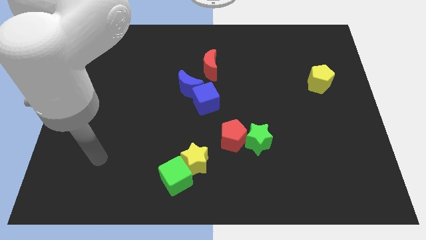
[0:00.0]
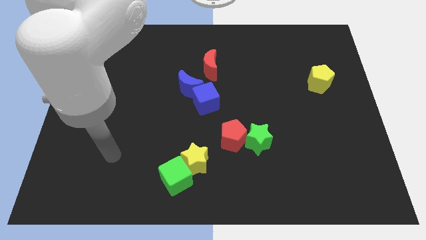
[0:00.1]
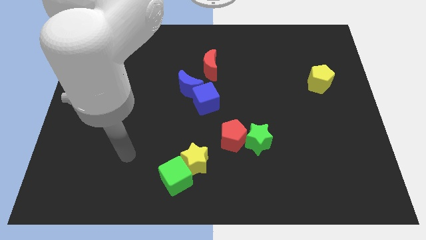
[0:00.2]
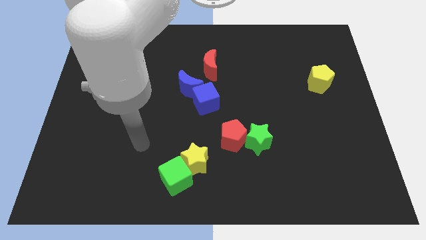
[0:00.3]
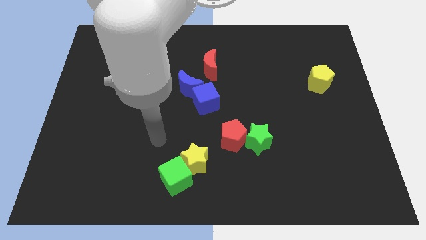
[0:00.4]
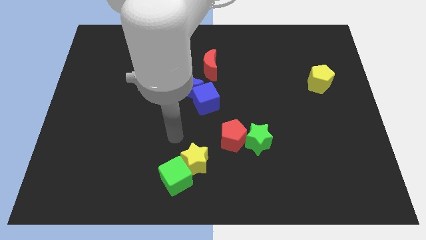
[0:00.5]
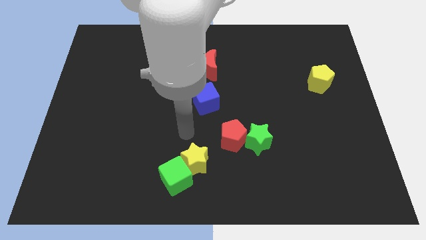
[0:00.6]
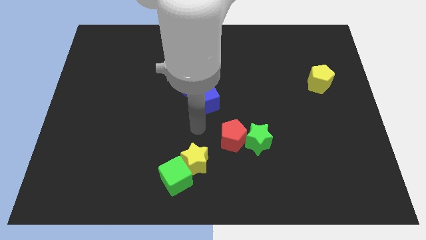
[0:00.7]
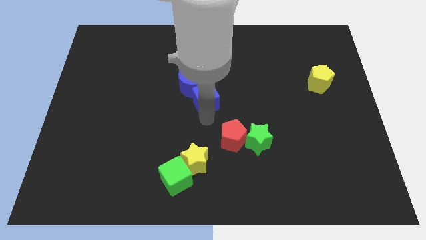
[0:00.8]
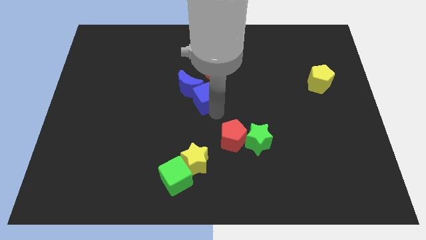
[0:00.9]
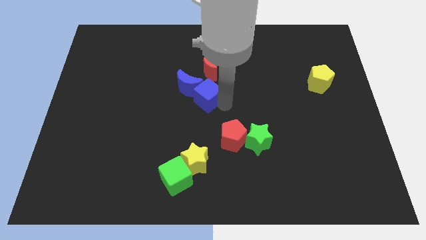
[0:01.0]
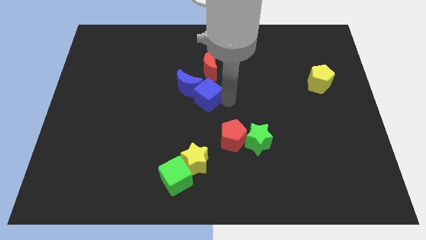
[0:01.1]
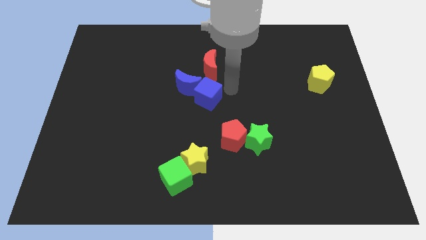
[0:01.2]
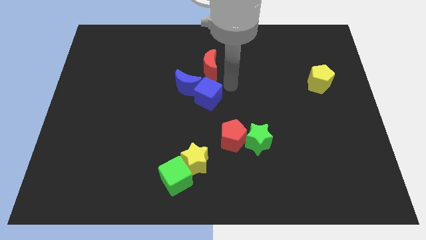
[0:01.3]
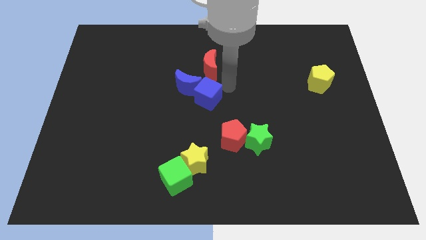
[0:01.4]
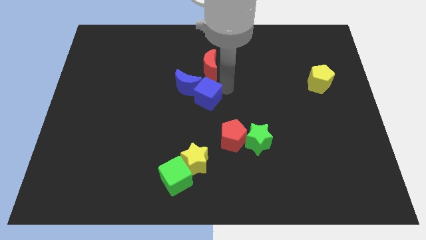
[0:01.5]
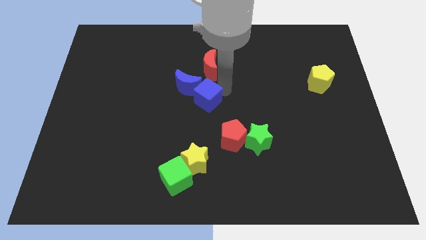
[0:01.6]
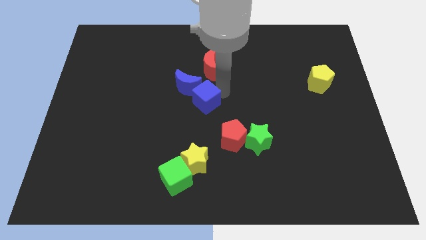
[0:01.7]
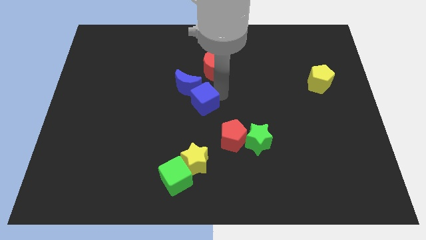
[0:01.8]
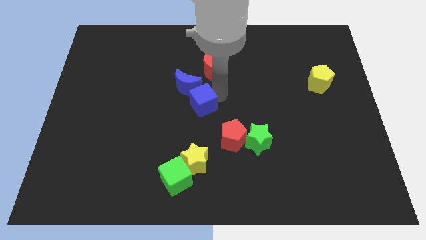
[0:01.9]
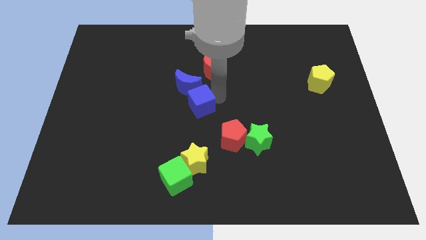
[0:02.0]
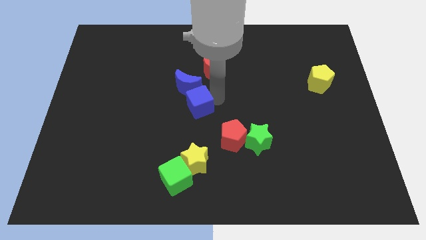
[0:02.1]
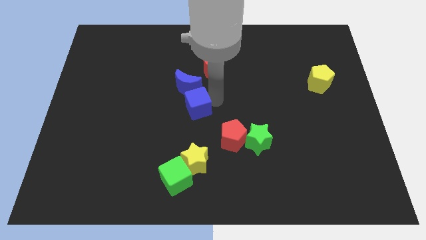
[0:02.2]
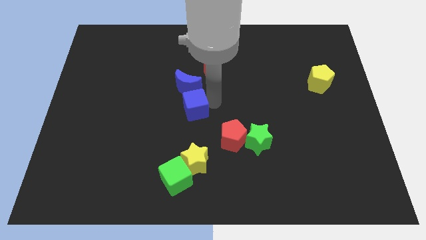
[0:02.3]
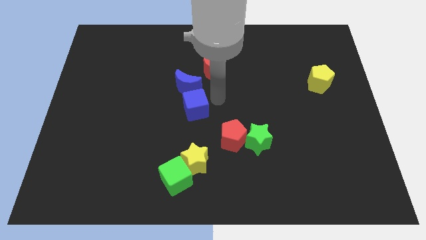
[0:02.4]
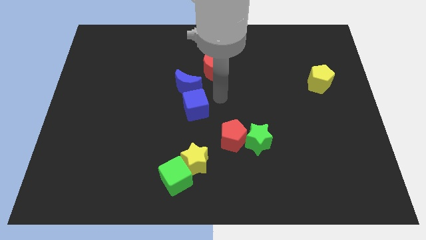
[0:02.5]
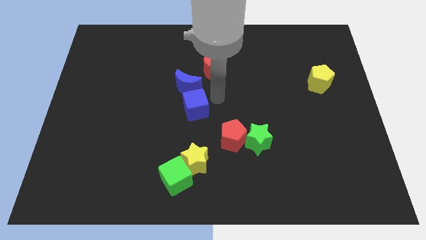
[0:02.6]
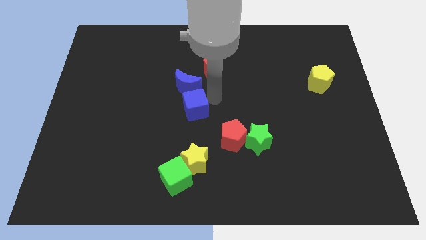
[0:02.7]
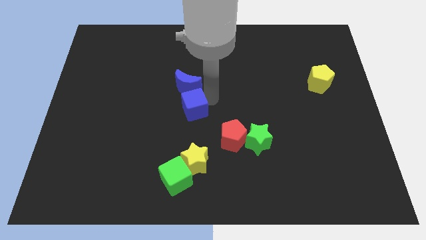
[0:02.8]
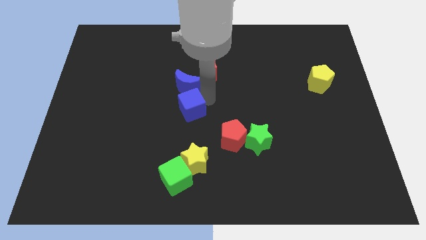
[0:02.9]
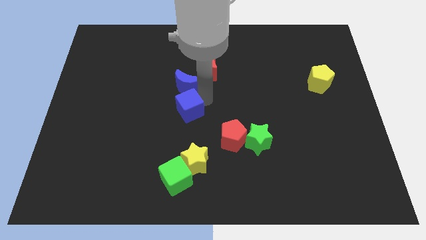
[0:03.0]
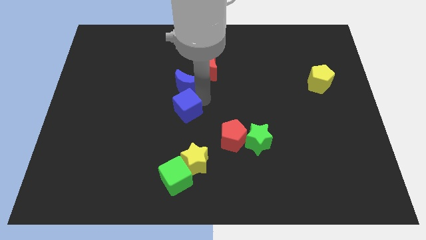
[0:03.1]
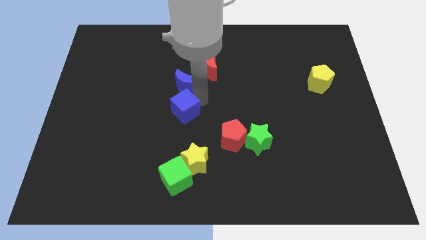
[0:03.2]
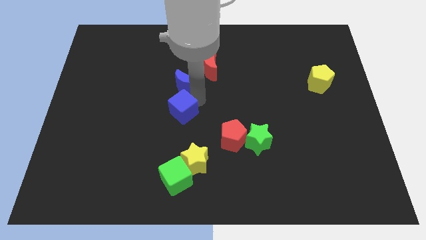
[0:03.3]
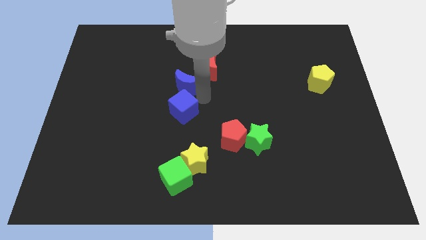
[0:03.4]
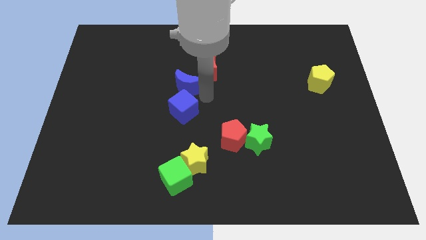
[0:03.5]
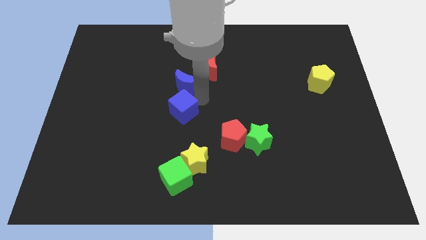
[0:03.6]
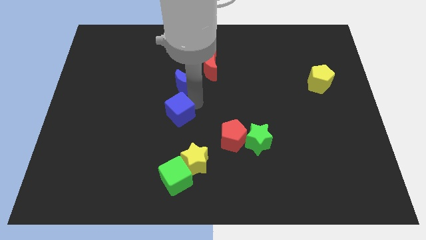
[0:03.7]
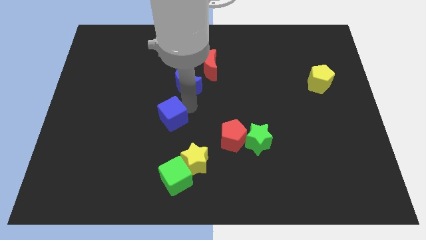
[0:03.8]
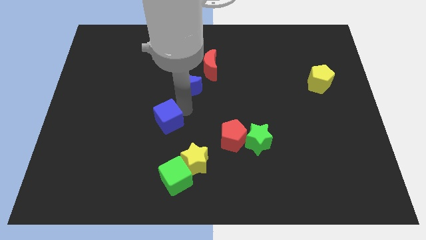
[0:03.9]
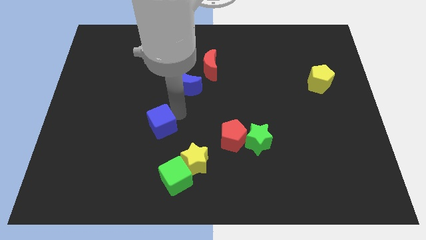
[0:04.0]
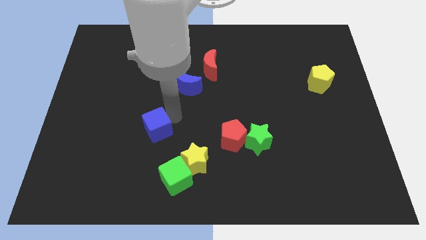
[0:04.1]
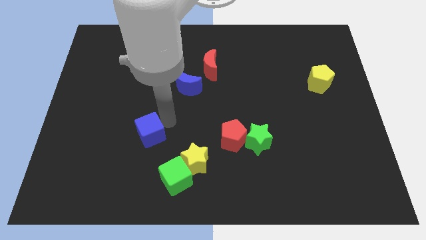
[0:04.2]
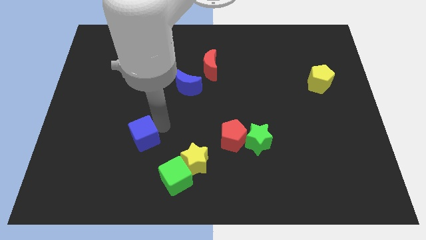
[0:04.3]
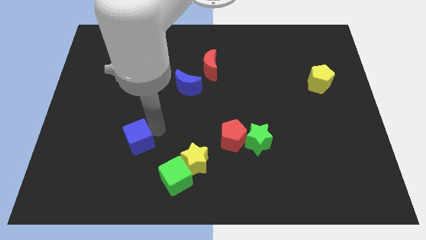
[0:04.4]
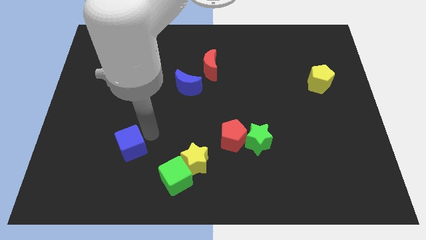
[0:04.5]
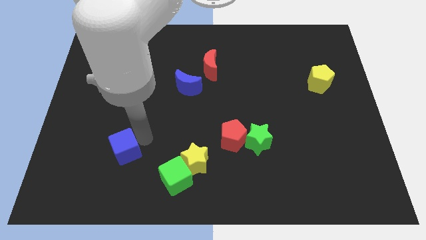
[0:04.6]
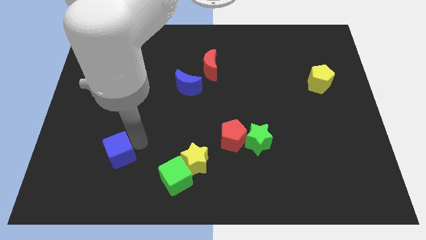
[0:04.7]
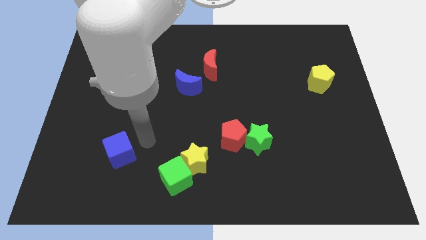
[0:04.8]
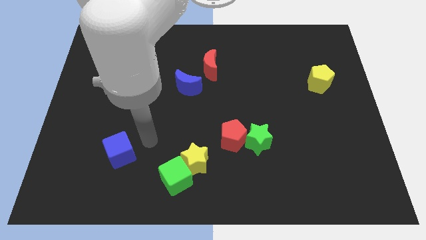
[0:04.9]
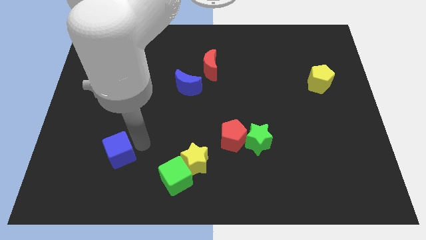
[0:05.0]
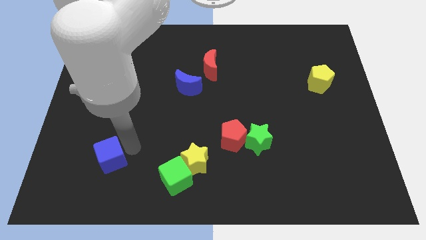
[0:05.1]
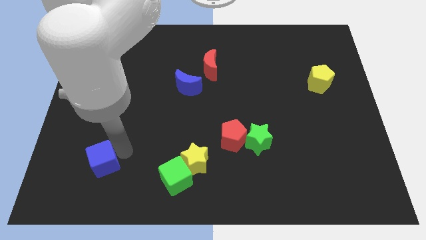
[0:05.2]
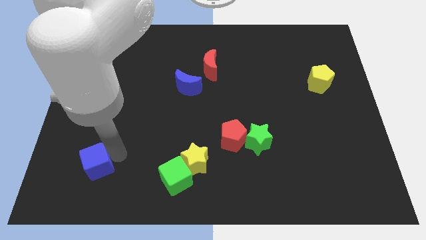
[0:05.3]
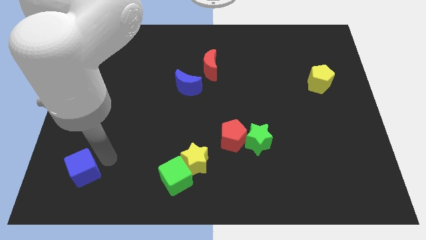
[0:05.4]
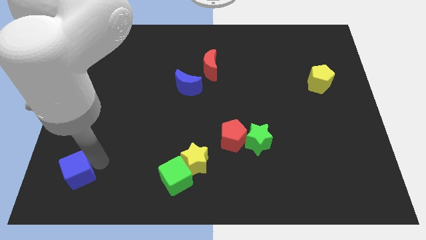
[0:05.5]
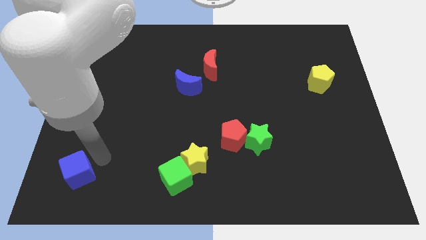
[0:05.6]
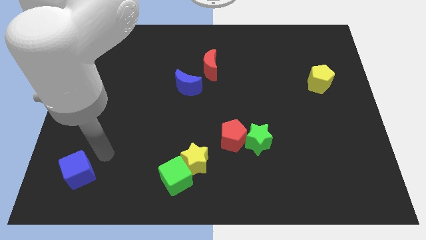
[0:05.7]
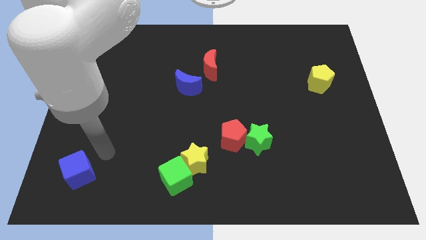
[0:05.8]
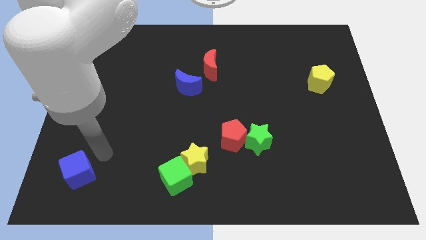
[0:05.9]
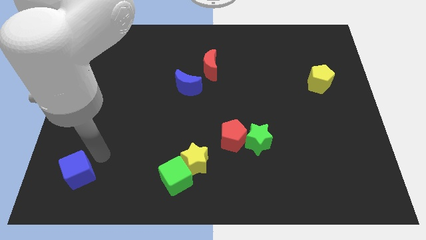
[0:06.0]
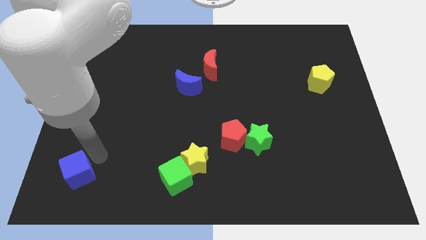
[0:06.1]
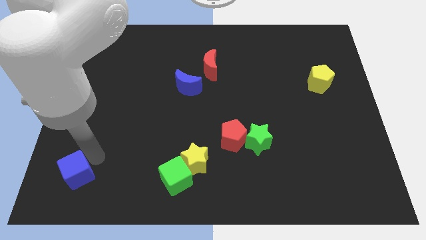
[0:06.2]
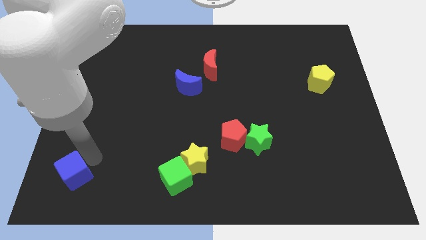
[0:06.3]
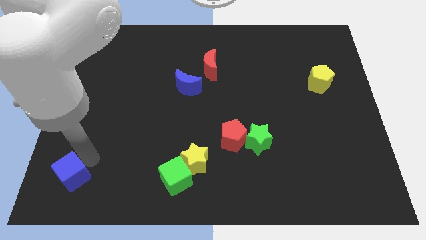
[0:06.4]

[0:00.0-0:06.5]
slide the blue cube to the lower left corner
